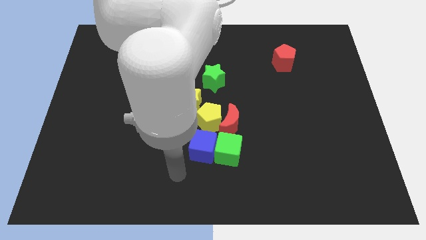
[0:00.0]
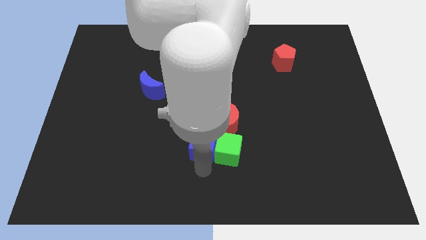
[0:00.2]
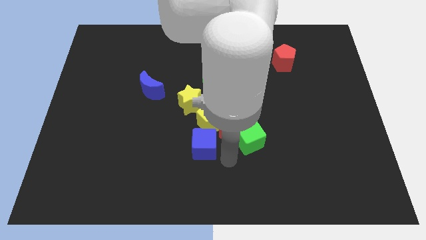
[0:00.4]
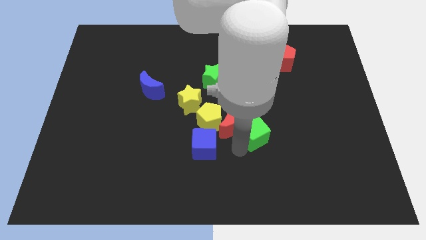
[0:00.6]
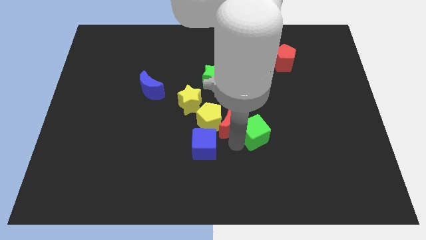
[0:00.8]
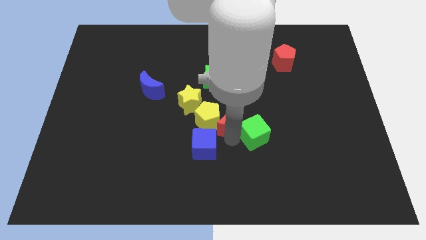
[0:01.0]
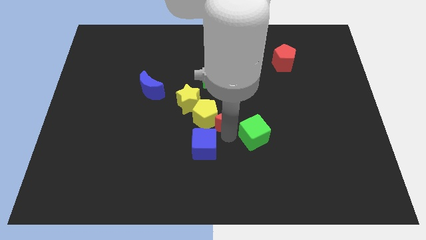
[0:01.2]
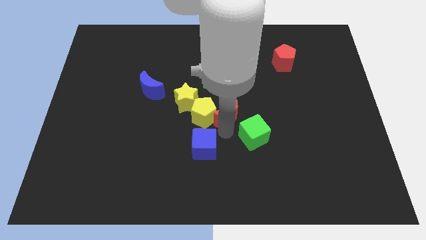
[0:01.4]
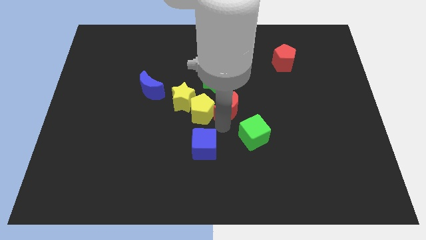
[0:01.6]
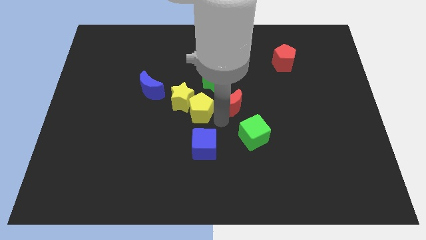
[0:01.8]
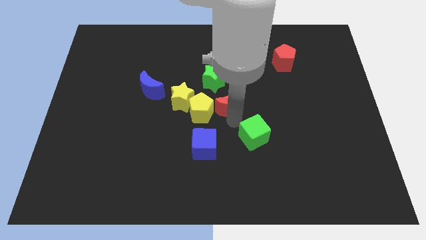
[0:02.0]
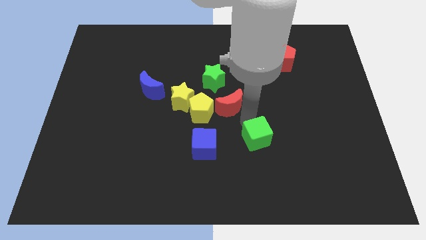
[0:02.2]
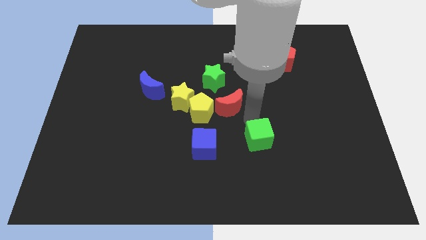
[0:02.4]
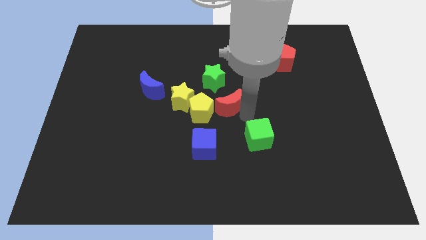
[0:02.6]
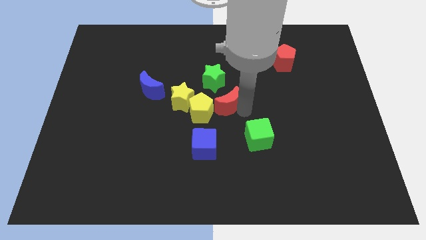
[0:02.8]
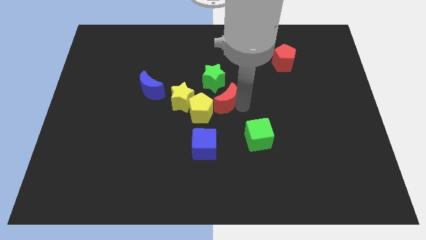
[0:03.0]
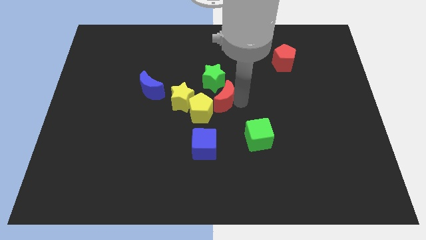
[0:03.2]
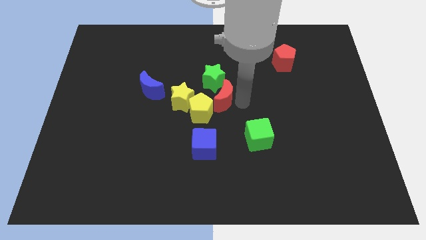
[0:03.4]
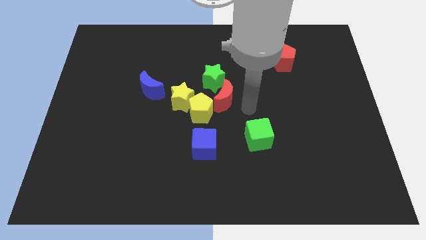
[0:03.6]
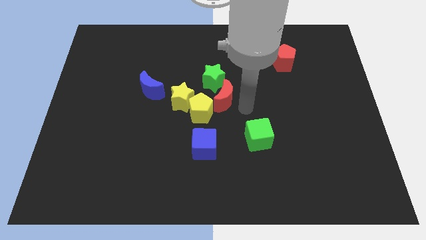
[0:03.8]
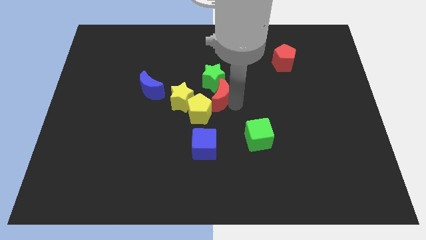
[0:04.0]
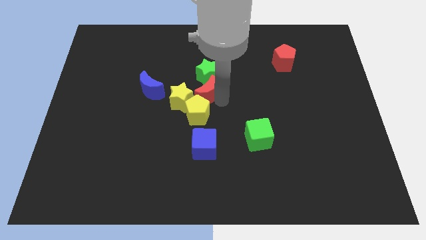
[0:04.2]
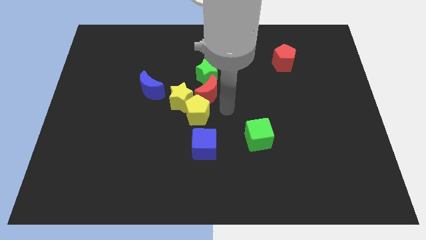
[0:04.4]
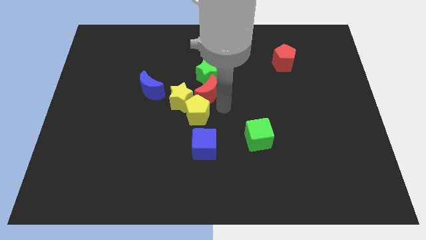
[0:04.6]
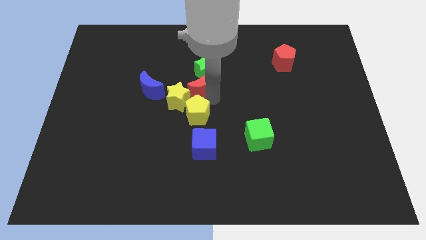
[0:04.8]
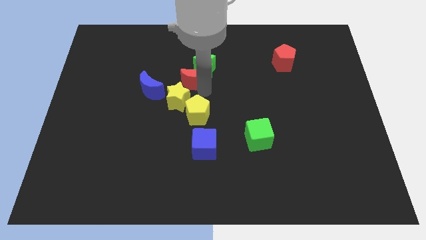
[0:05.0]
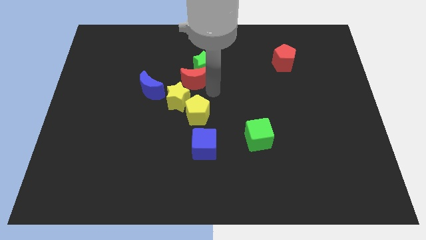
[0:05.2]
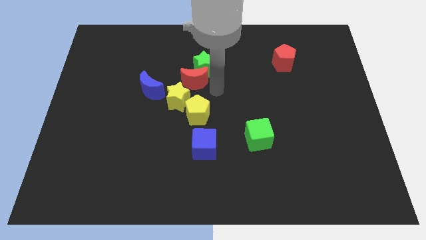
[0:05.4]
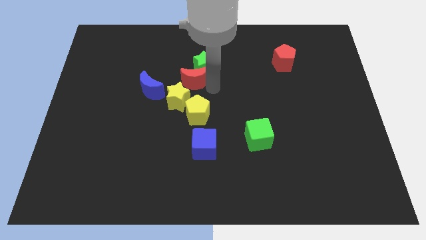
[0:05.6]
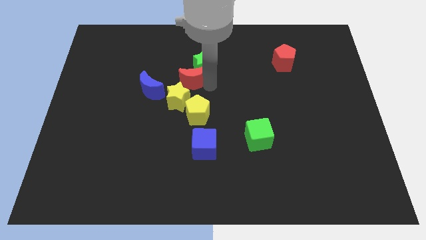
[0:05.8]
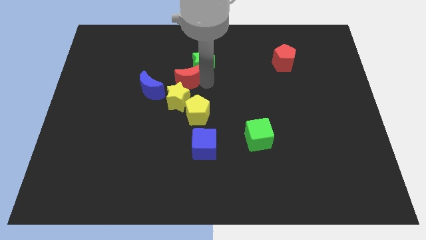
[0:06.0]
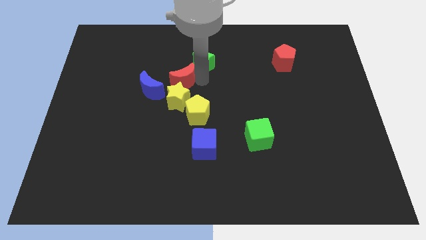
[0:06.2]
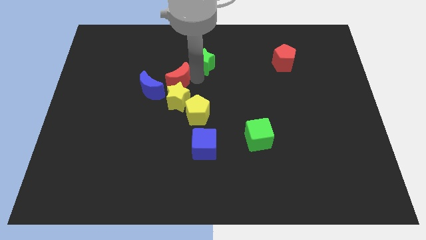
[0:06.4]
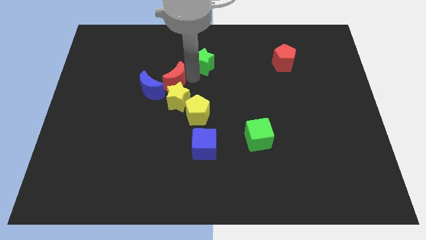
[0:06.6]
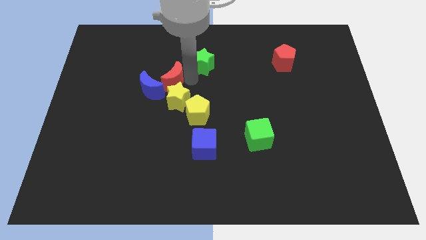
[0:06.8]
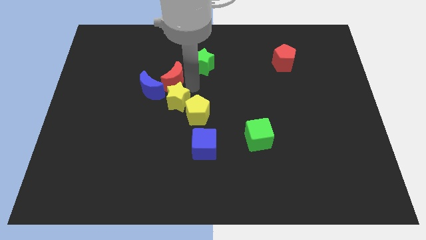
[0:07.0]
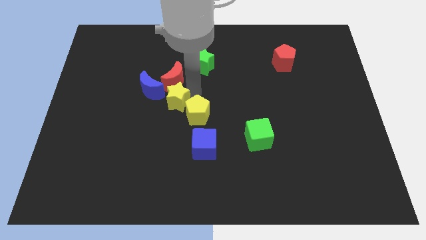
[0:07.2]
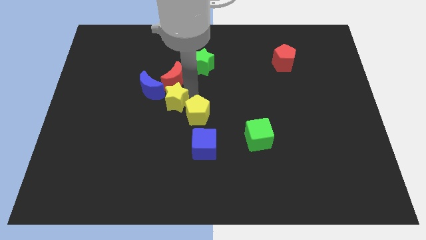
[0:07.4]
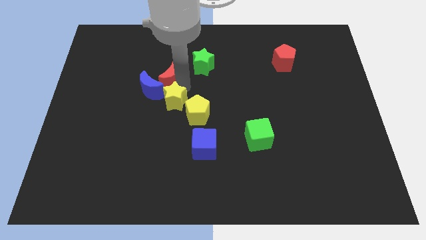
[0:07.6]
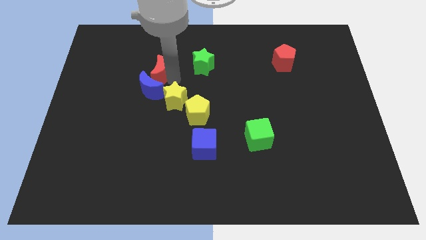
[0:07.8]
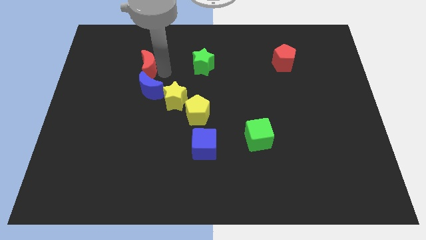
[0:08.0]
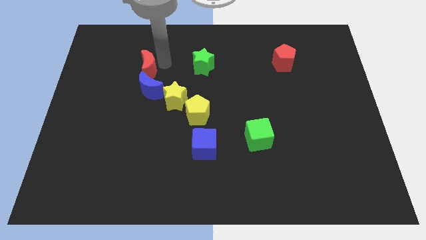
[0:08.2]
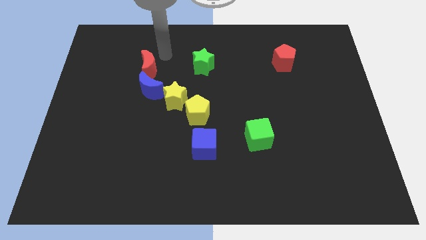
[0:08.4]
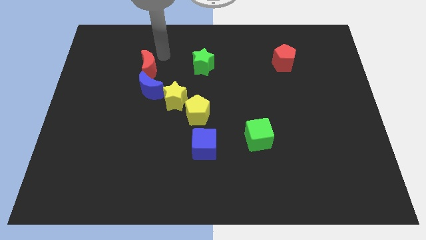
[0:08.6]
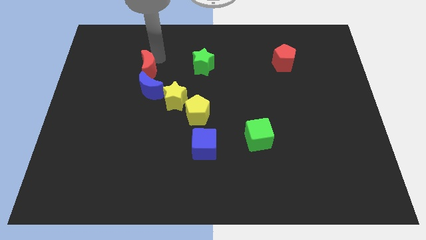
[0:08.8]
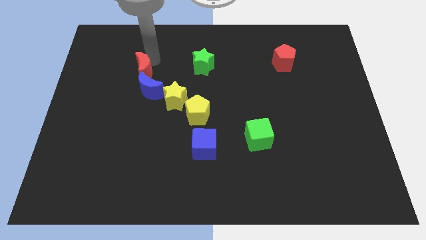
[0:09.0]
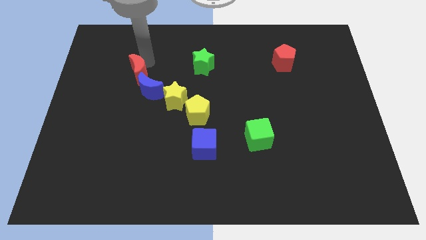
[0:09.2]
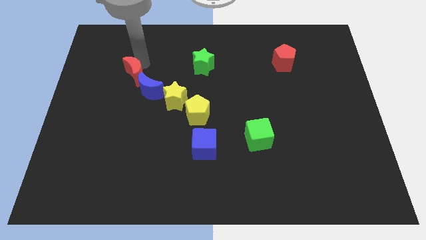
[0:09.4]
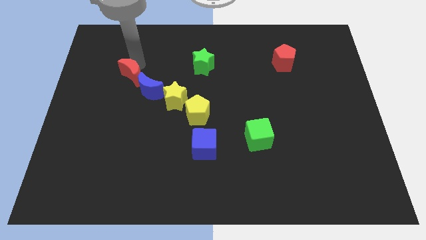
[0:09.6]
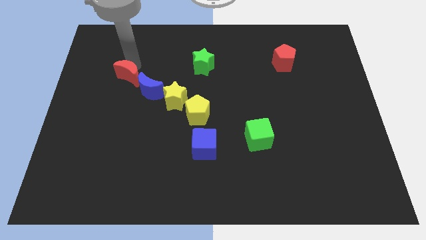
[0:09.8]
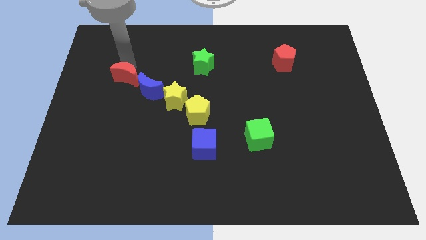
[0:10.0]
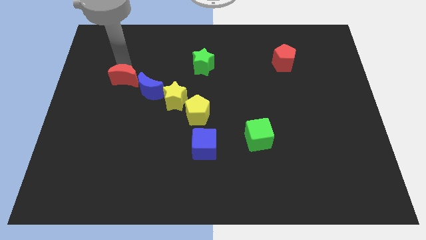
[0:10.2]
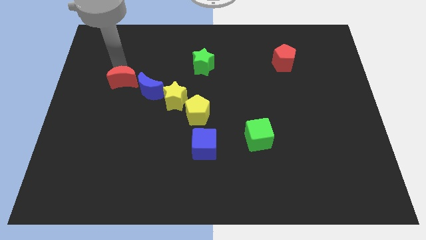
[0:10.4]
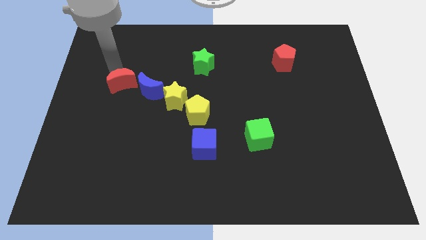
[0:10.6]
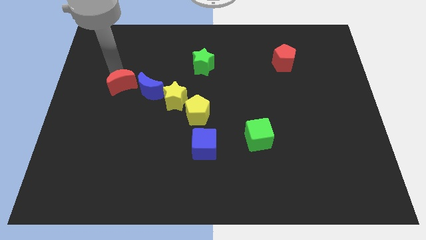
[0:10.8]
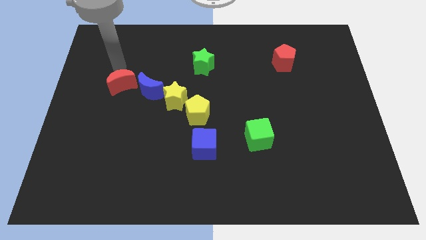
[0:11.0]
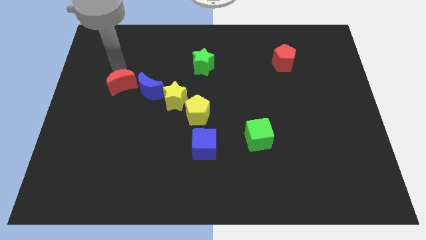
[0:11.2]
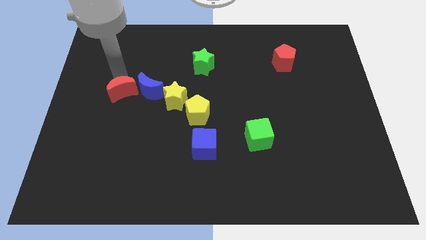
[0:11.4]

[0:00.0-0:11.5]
push the red moon left

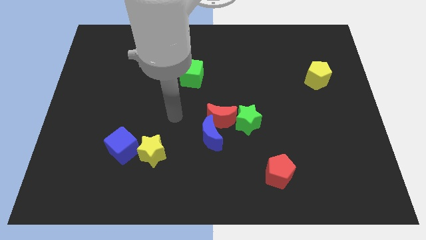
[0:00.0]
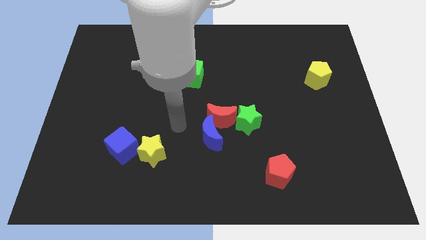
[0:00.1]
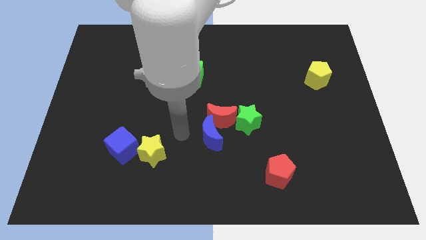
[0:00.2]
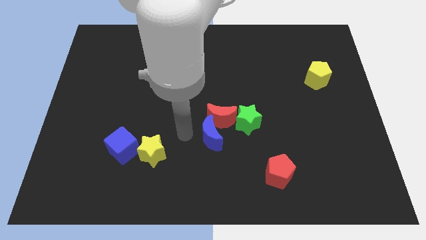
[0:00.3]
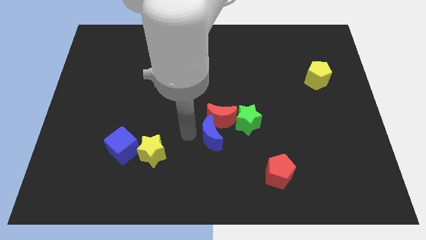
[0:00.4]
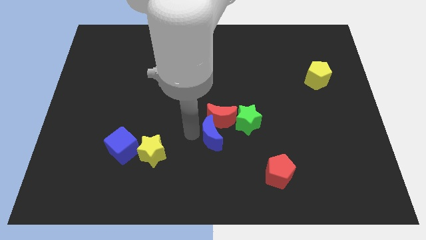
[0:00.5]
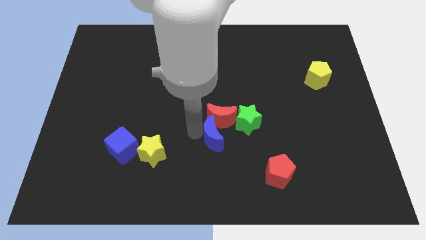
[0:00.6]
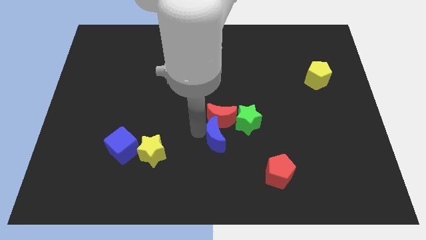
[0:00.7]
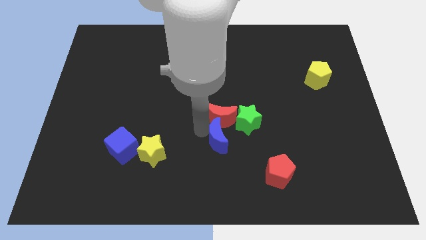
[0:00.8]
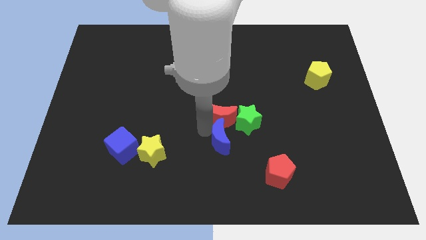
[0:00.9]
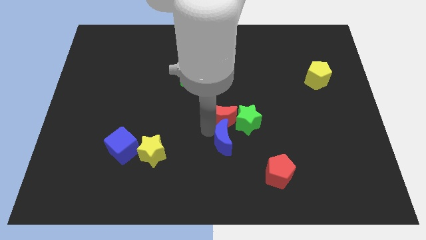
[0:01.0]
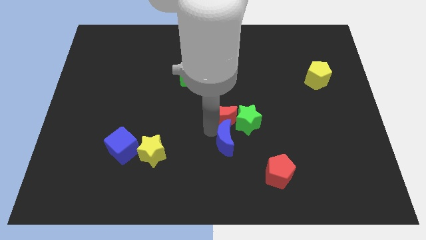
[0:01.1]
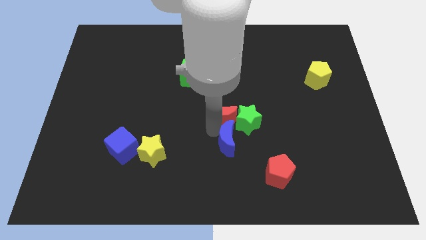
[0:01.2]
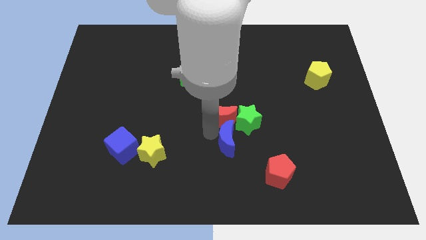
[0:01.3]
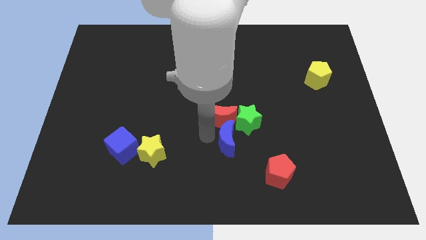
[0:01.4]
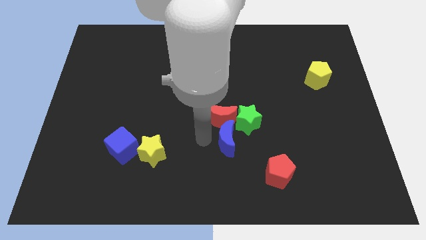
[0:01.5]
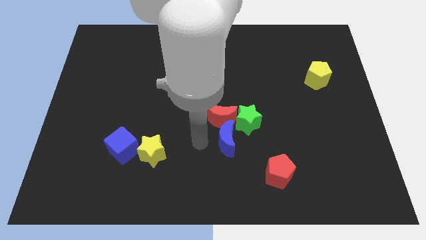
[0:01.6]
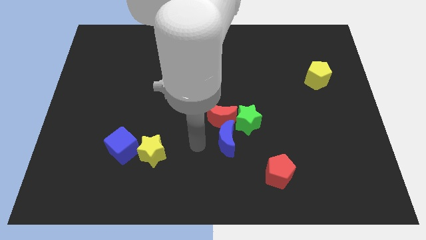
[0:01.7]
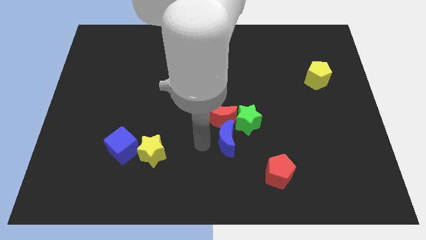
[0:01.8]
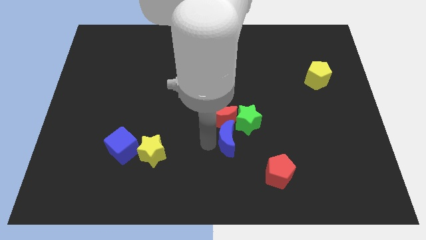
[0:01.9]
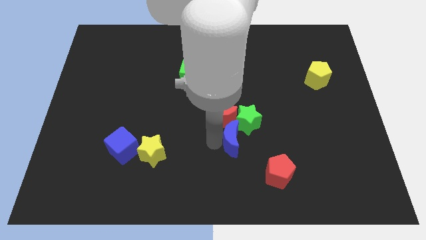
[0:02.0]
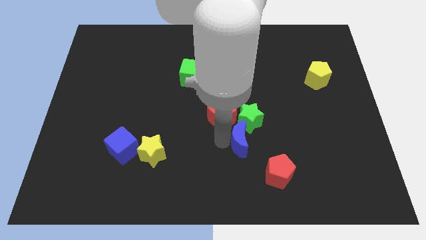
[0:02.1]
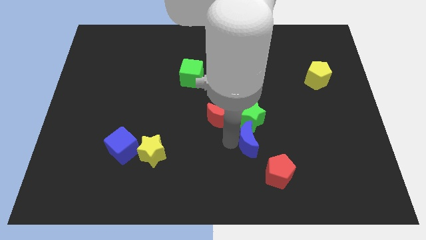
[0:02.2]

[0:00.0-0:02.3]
push the blue moon a bit to the right
